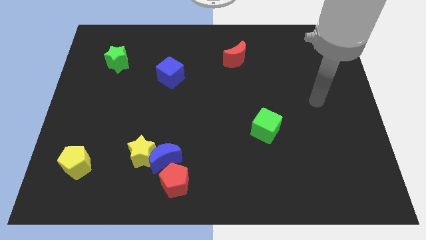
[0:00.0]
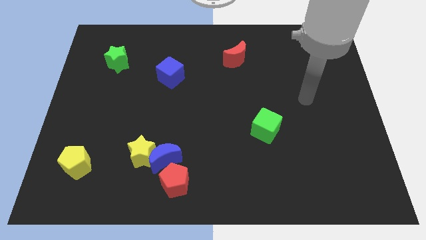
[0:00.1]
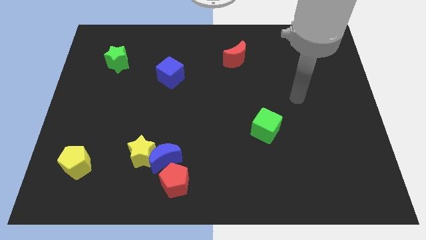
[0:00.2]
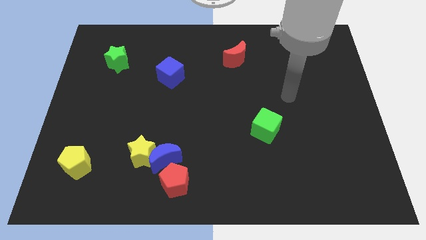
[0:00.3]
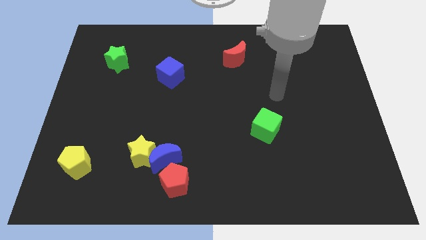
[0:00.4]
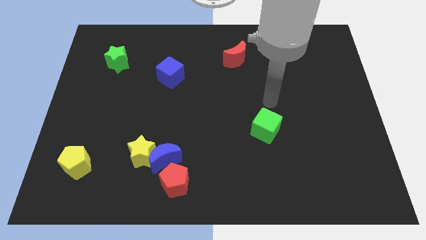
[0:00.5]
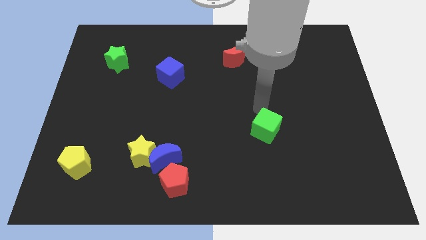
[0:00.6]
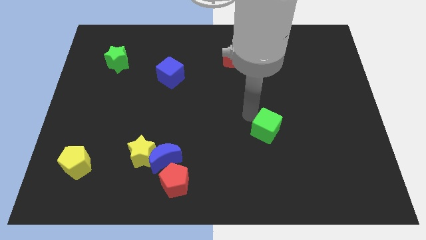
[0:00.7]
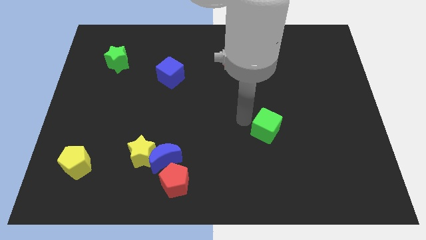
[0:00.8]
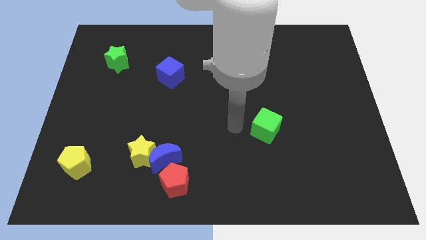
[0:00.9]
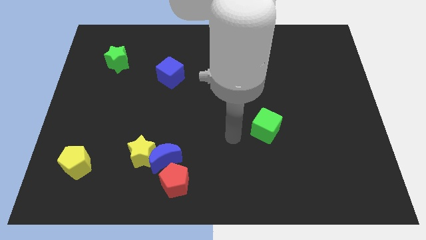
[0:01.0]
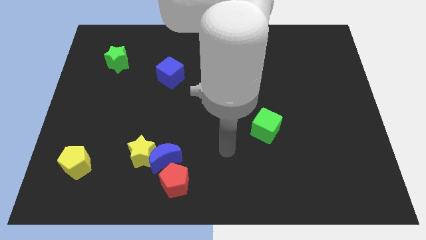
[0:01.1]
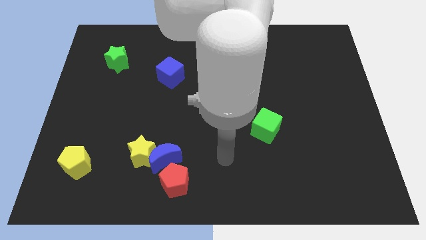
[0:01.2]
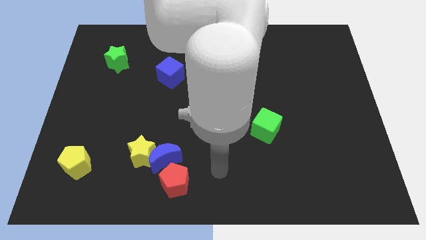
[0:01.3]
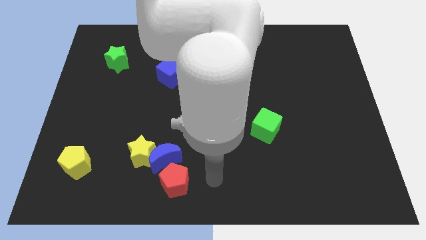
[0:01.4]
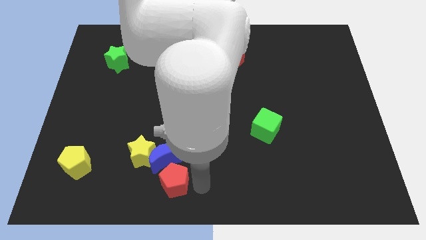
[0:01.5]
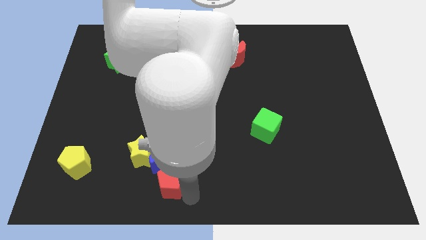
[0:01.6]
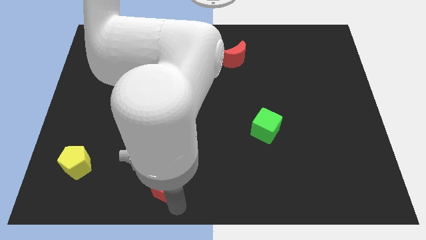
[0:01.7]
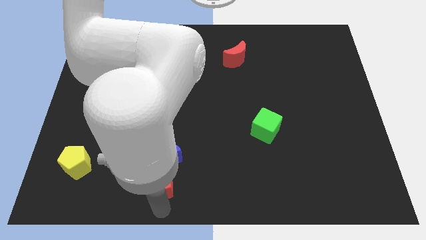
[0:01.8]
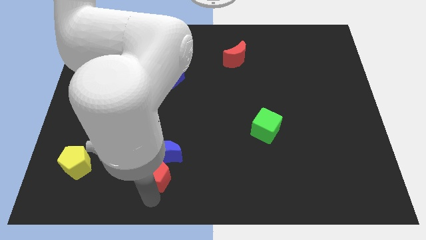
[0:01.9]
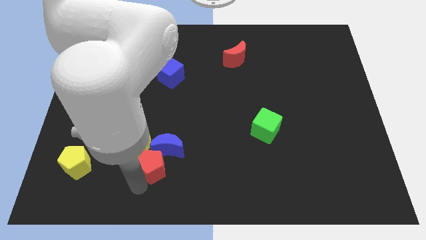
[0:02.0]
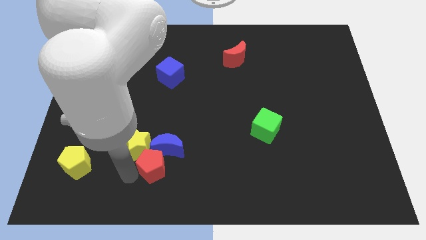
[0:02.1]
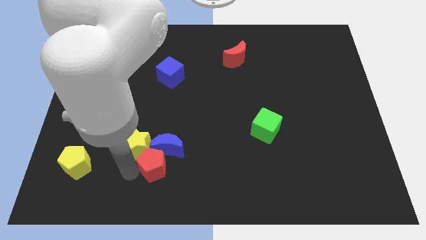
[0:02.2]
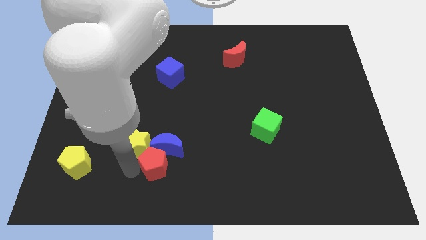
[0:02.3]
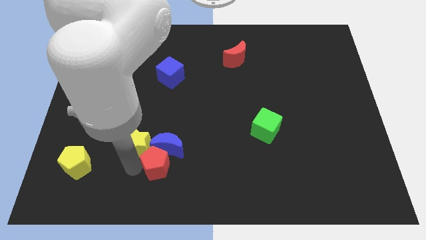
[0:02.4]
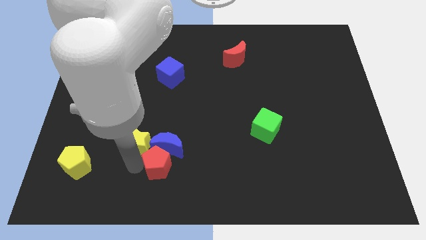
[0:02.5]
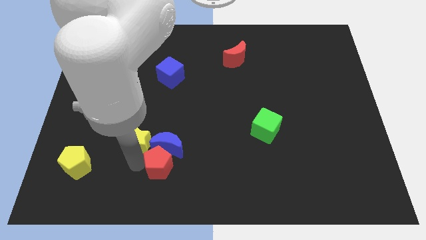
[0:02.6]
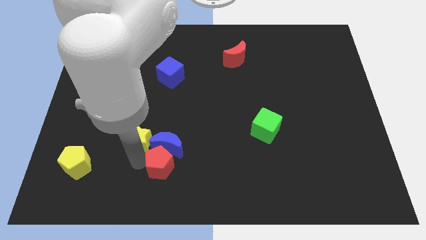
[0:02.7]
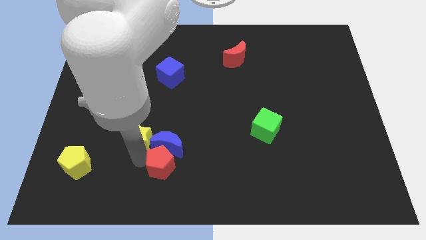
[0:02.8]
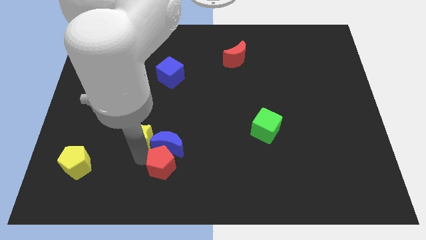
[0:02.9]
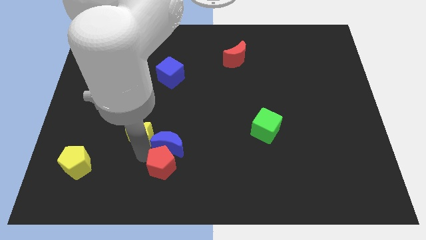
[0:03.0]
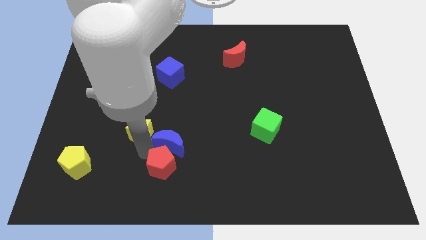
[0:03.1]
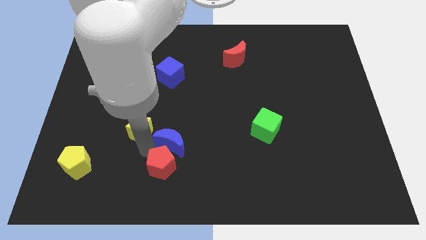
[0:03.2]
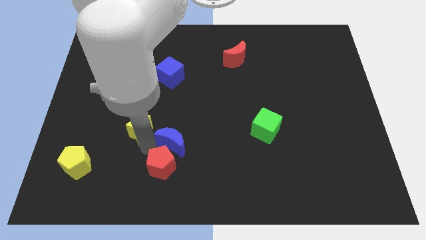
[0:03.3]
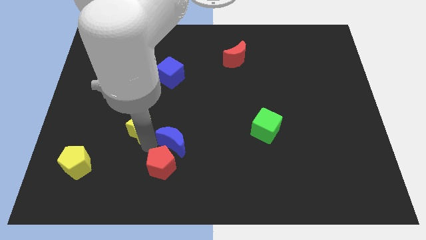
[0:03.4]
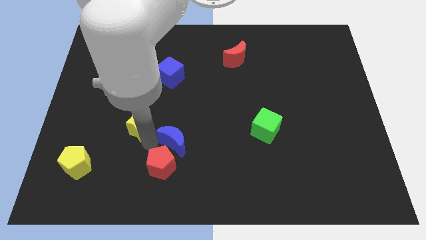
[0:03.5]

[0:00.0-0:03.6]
slightly push the yellow star upwards

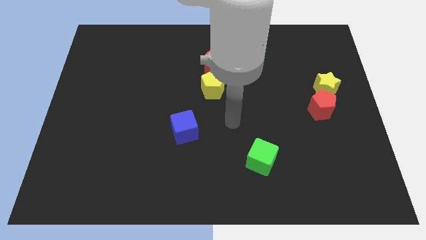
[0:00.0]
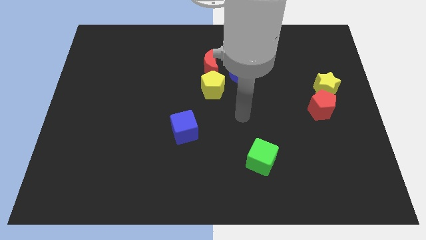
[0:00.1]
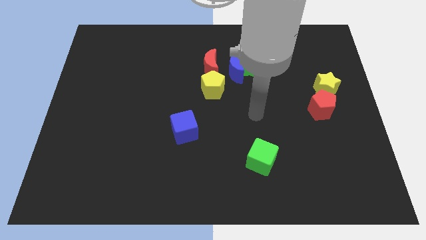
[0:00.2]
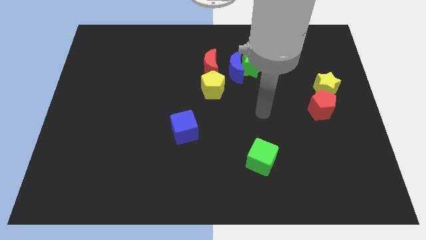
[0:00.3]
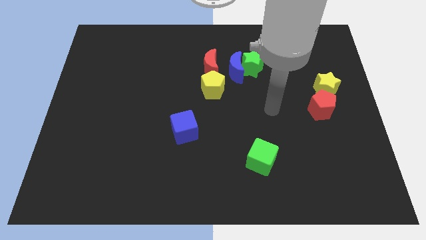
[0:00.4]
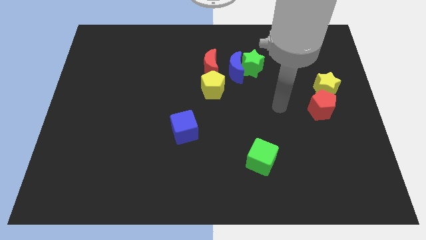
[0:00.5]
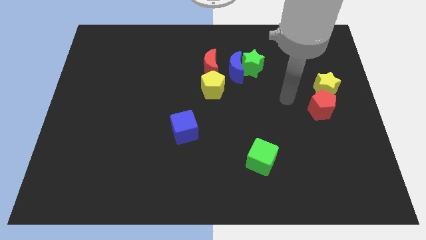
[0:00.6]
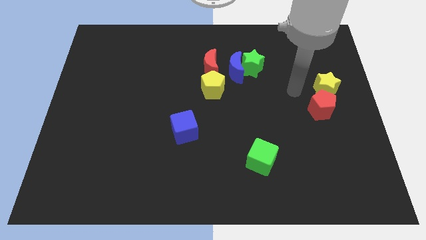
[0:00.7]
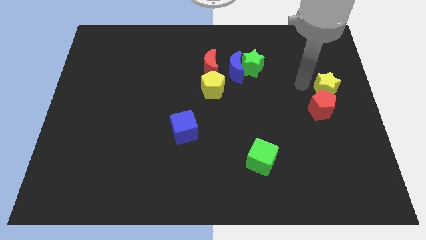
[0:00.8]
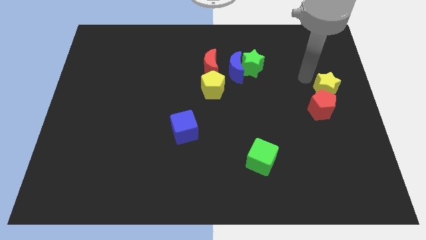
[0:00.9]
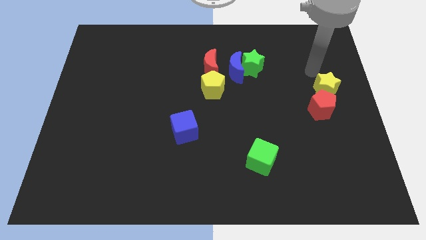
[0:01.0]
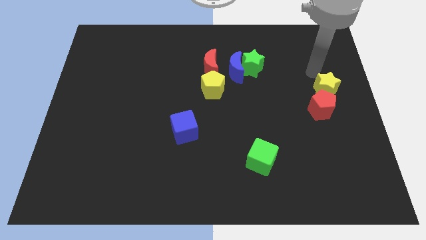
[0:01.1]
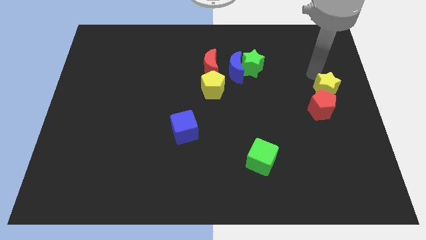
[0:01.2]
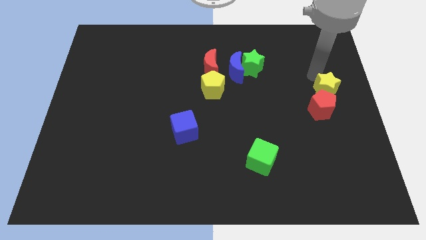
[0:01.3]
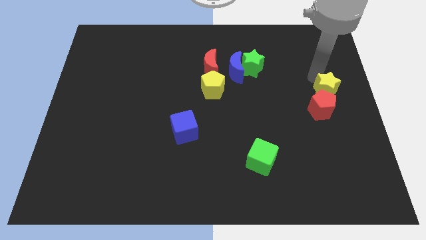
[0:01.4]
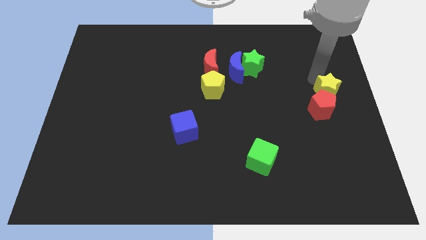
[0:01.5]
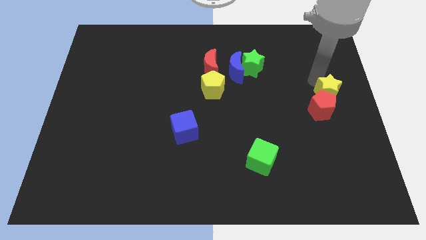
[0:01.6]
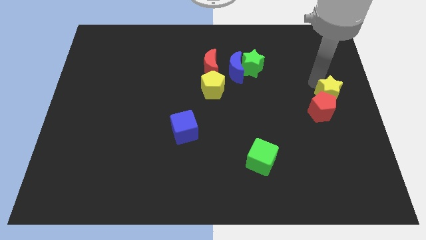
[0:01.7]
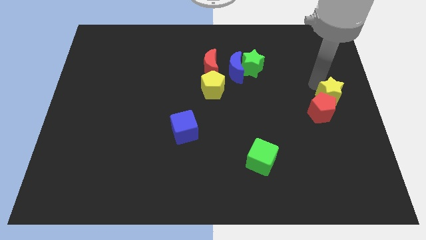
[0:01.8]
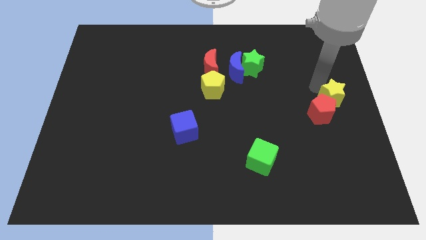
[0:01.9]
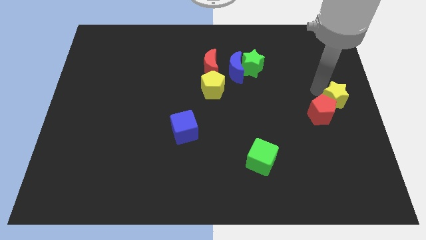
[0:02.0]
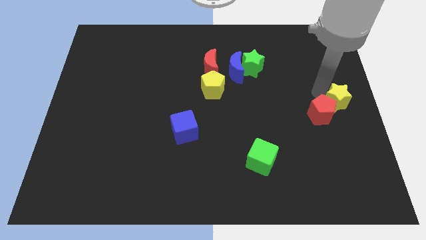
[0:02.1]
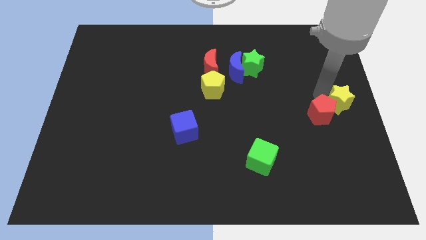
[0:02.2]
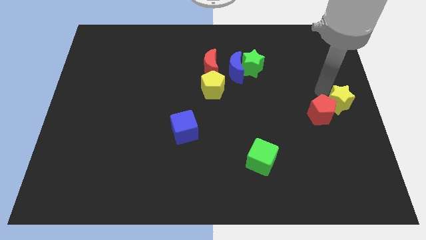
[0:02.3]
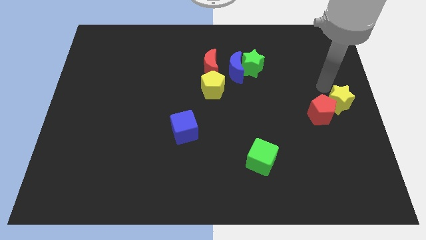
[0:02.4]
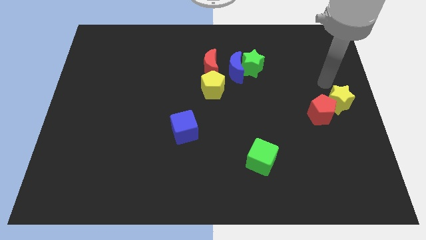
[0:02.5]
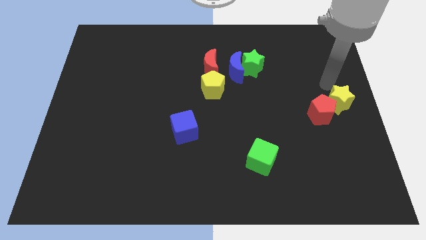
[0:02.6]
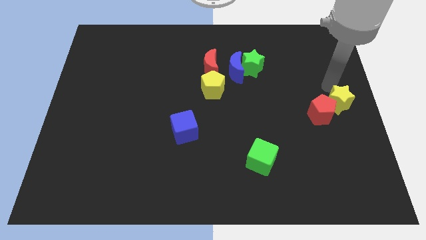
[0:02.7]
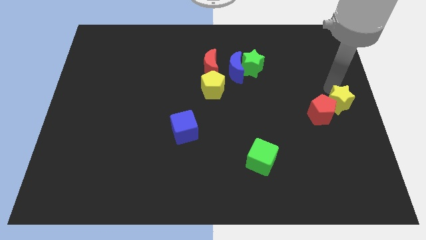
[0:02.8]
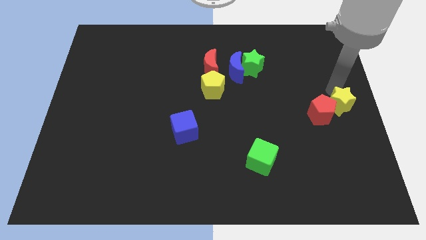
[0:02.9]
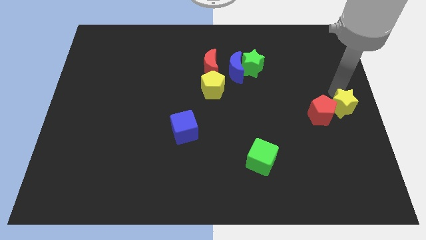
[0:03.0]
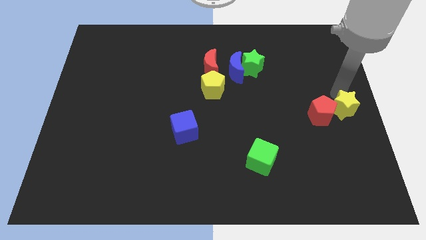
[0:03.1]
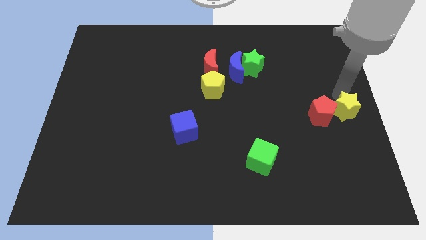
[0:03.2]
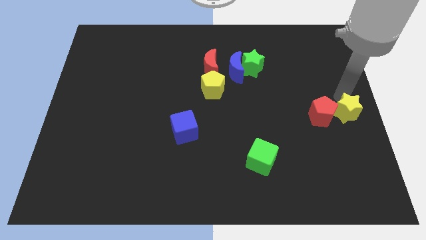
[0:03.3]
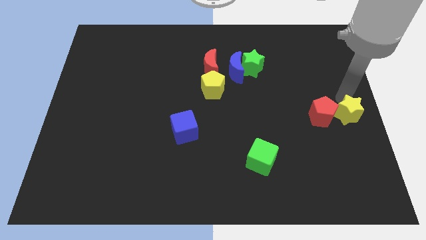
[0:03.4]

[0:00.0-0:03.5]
slide the yellow star a little down

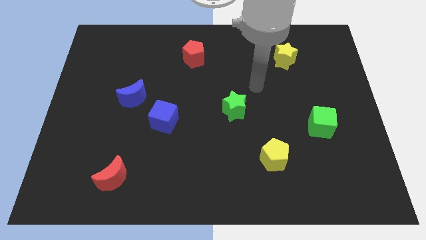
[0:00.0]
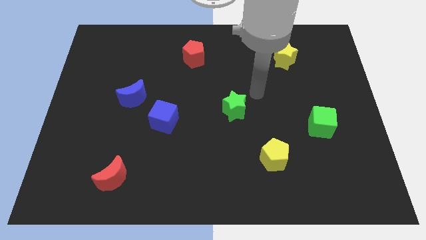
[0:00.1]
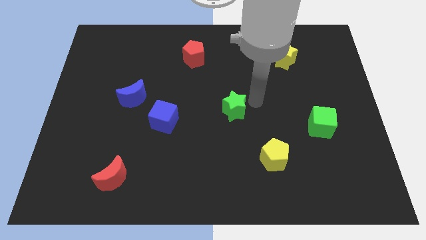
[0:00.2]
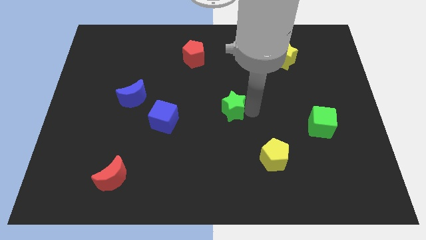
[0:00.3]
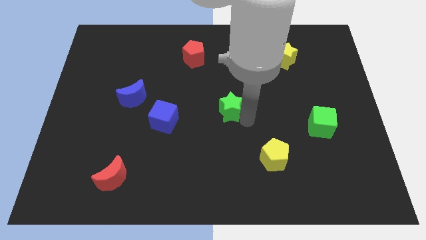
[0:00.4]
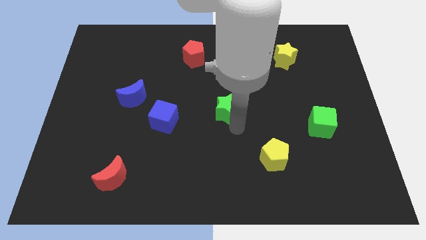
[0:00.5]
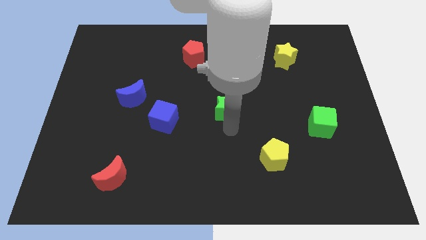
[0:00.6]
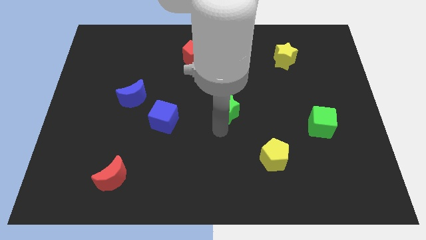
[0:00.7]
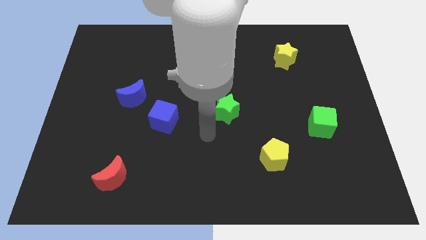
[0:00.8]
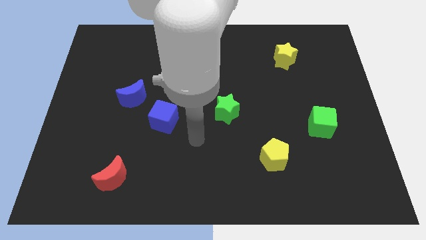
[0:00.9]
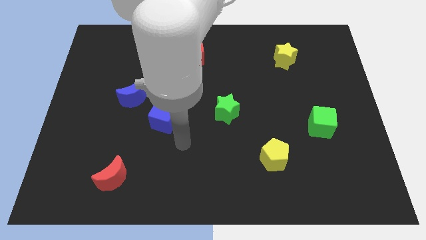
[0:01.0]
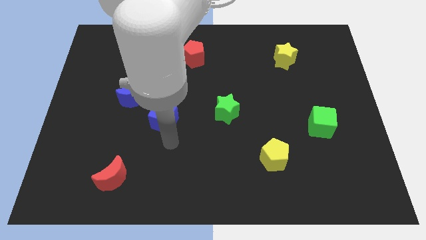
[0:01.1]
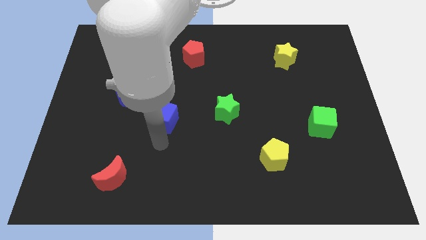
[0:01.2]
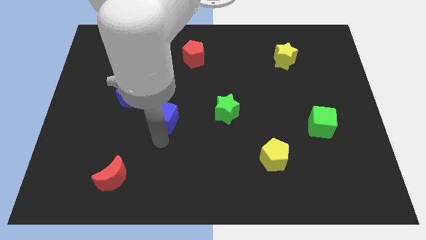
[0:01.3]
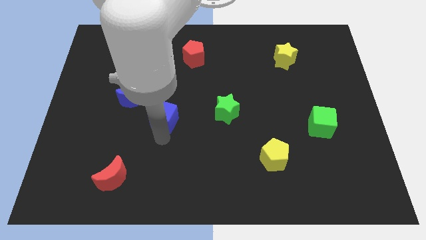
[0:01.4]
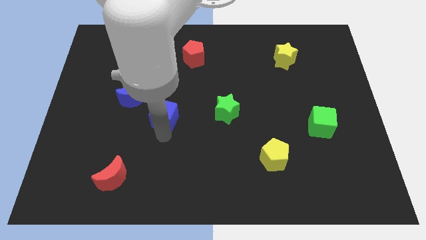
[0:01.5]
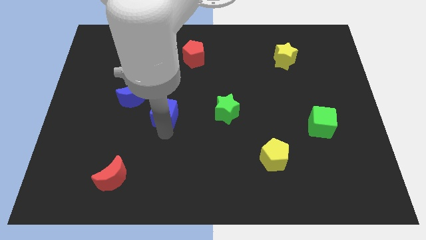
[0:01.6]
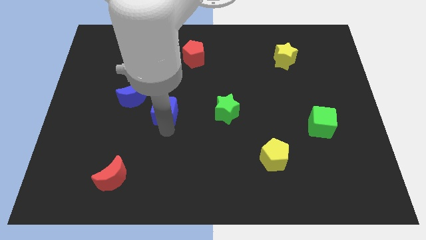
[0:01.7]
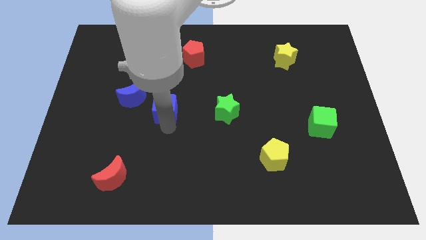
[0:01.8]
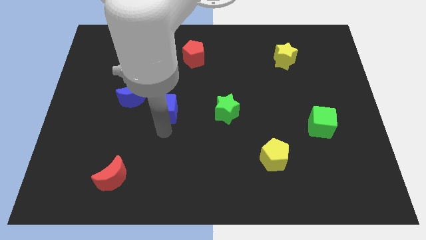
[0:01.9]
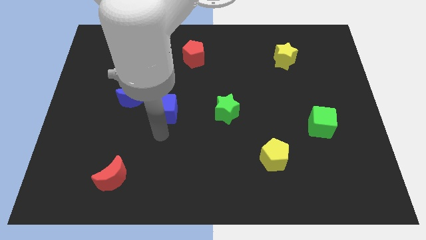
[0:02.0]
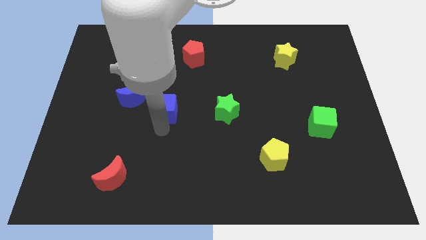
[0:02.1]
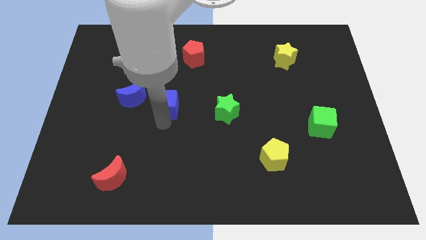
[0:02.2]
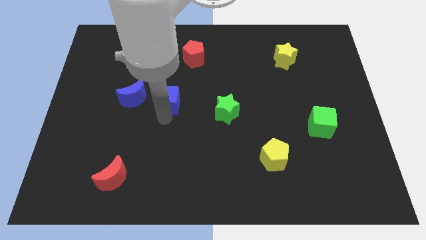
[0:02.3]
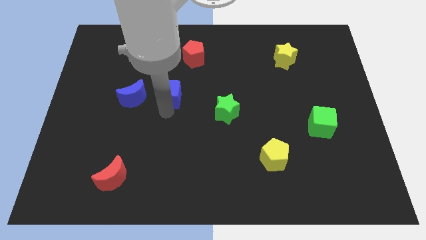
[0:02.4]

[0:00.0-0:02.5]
slide the blue cube a bit upwards
